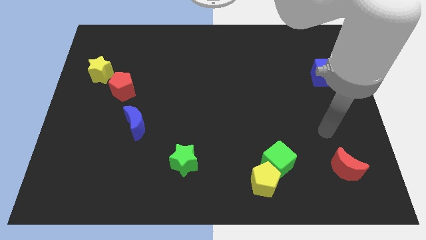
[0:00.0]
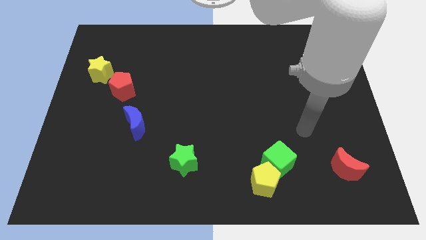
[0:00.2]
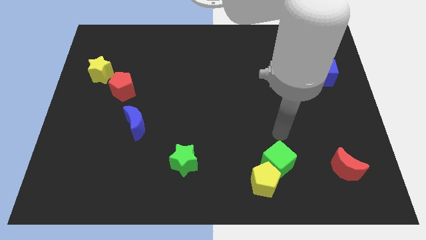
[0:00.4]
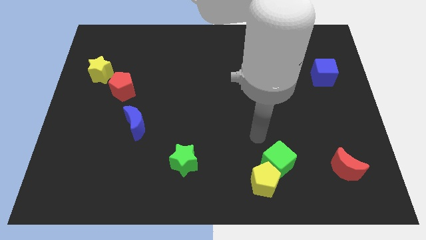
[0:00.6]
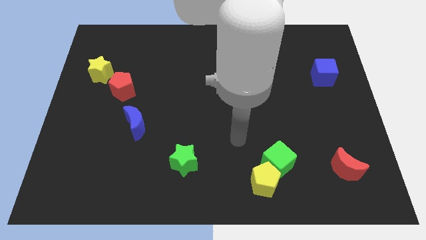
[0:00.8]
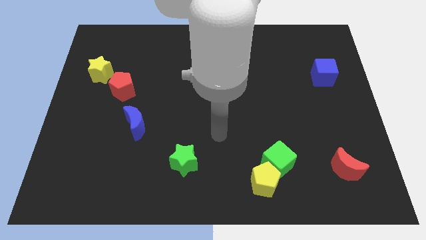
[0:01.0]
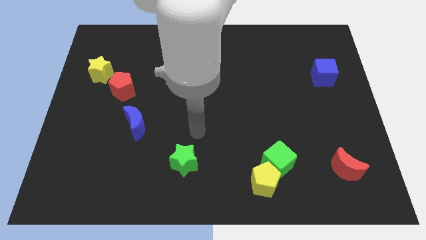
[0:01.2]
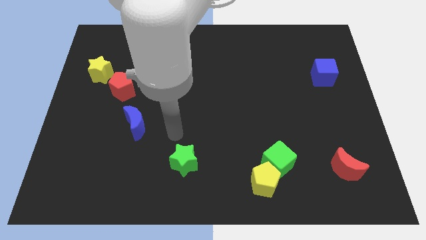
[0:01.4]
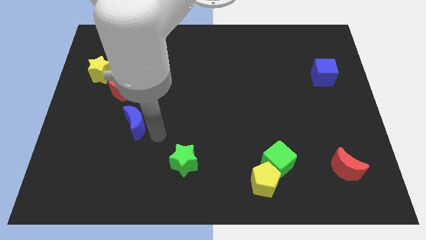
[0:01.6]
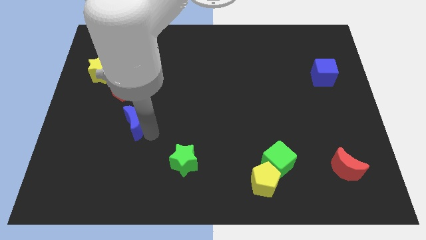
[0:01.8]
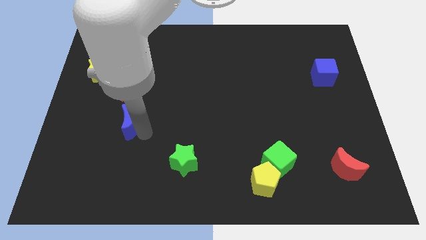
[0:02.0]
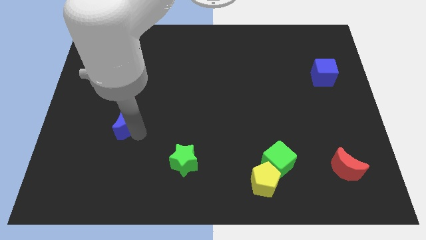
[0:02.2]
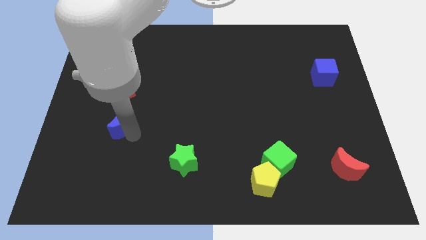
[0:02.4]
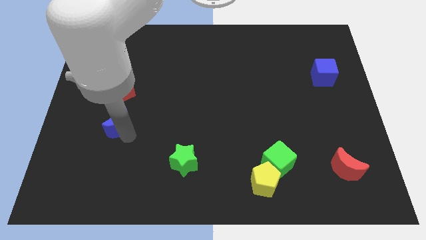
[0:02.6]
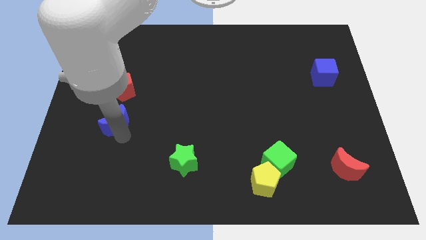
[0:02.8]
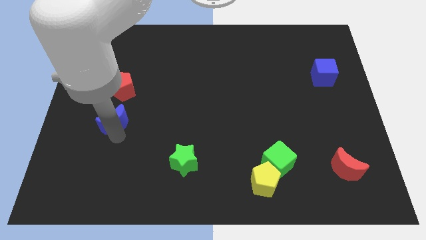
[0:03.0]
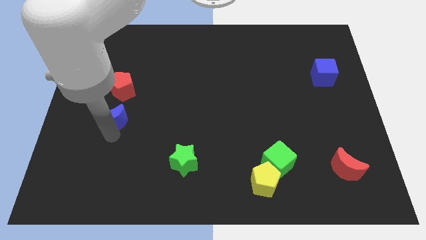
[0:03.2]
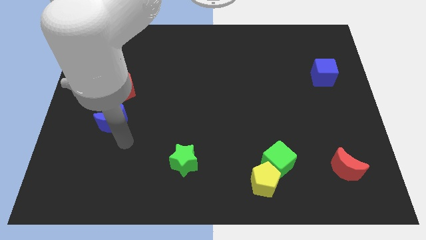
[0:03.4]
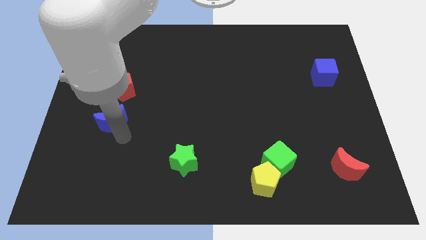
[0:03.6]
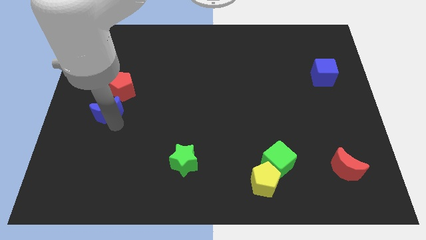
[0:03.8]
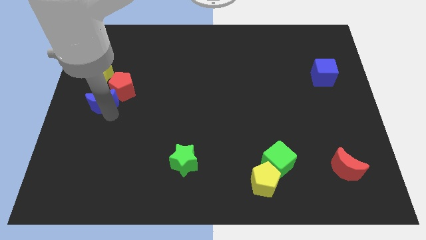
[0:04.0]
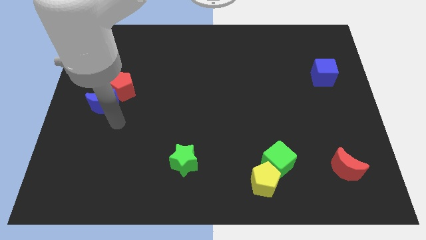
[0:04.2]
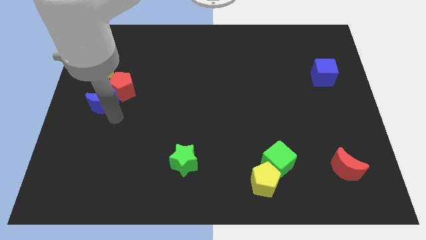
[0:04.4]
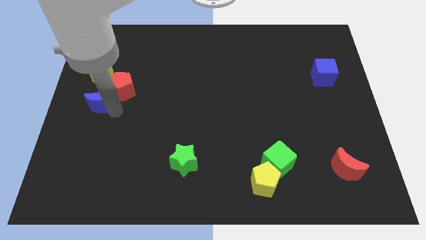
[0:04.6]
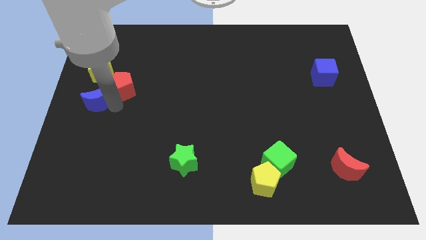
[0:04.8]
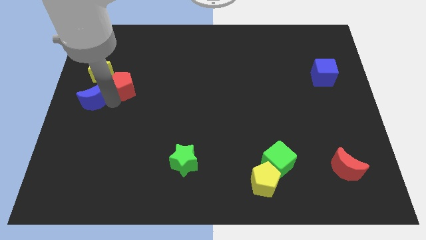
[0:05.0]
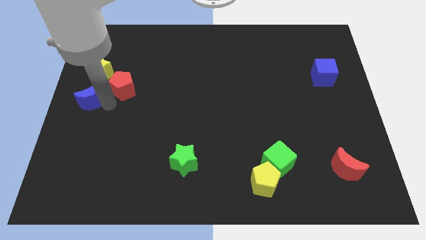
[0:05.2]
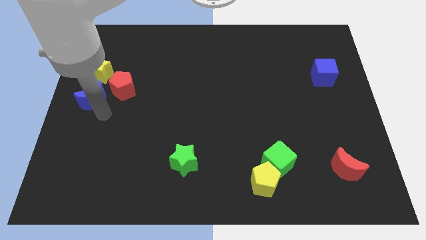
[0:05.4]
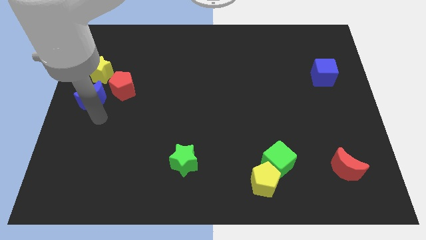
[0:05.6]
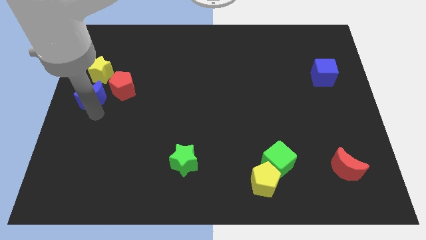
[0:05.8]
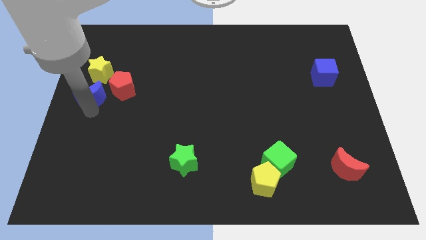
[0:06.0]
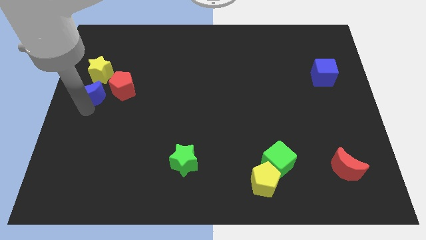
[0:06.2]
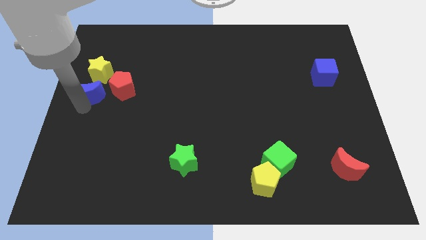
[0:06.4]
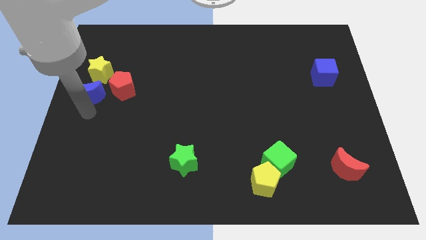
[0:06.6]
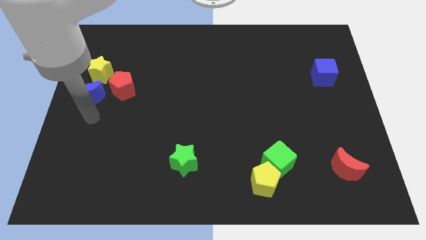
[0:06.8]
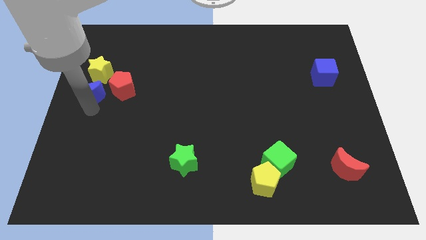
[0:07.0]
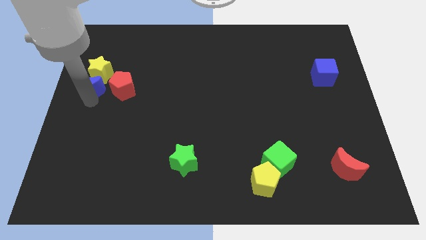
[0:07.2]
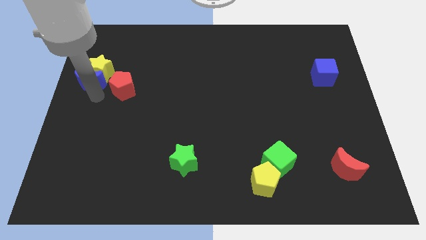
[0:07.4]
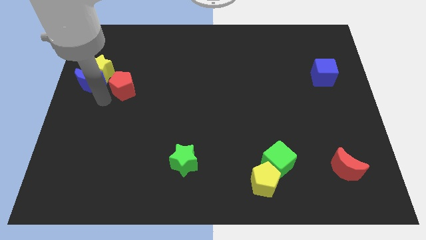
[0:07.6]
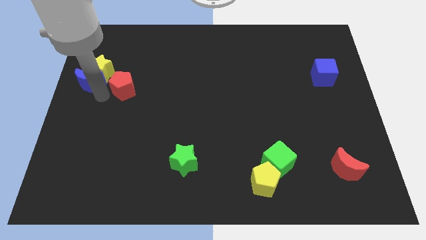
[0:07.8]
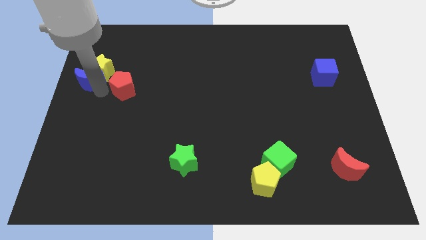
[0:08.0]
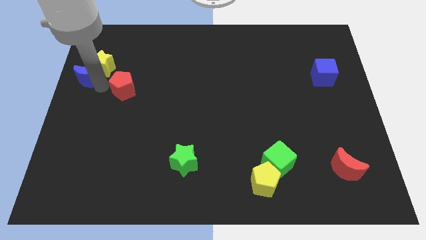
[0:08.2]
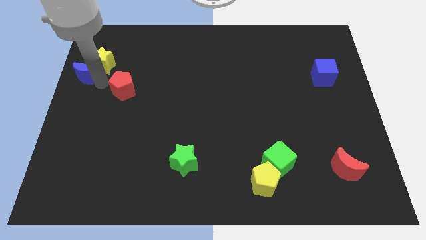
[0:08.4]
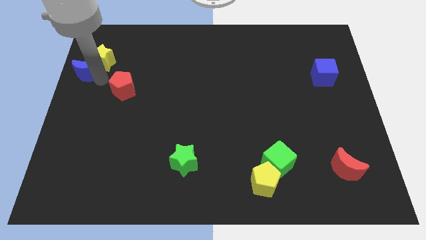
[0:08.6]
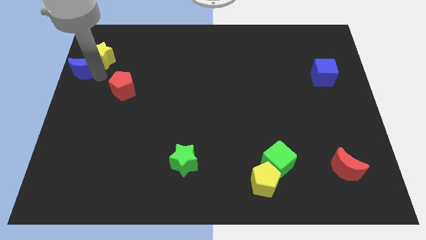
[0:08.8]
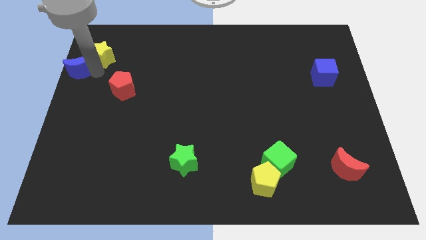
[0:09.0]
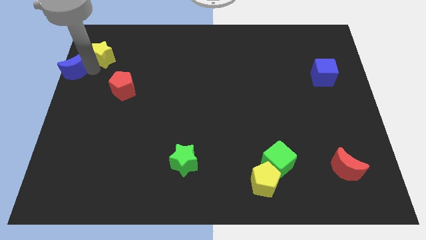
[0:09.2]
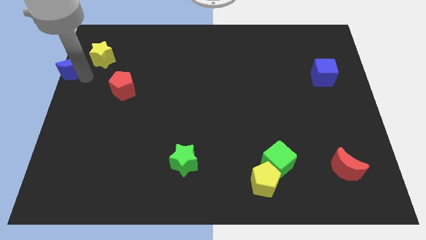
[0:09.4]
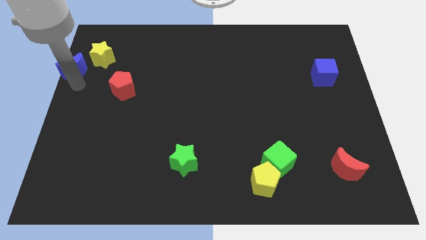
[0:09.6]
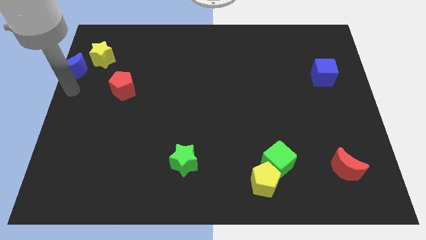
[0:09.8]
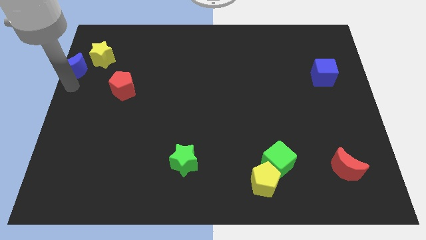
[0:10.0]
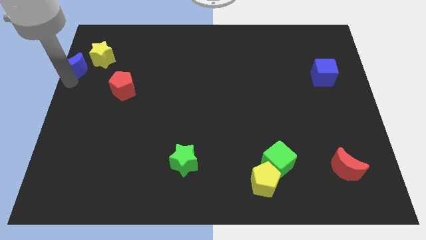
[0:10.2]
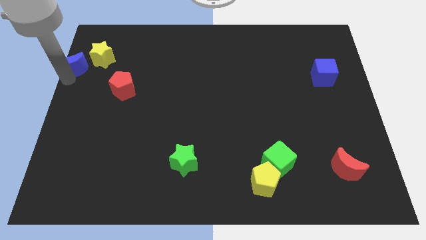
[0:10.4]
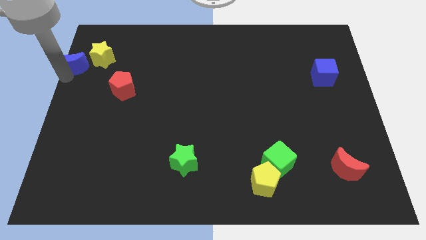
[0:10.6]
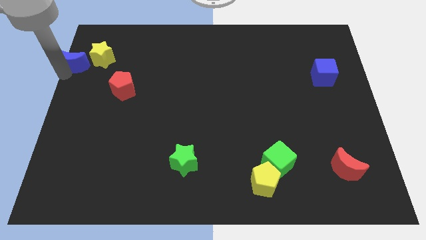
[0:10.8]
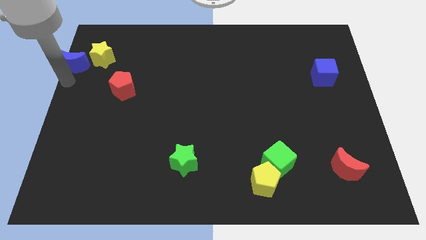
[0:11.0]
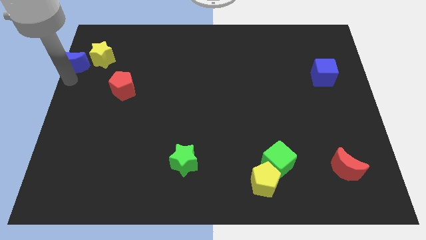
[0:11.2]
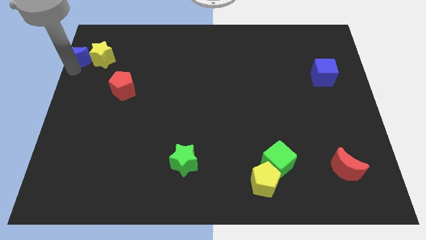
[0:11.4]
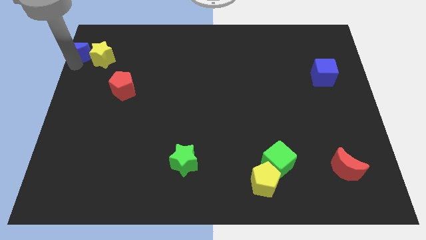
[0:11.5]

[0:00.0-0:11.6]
push the blue moon to the upper left corner

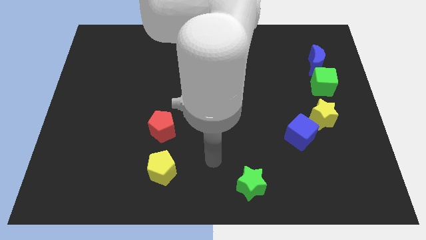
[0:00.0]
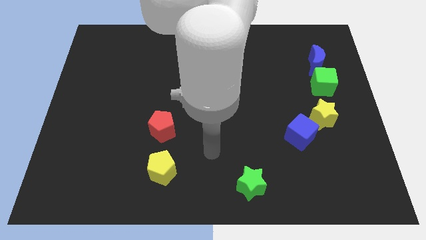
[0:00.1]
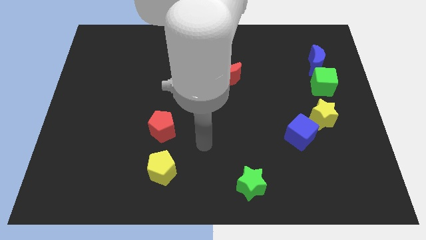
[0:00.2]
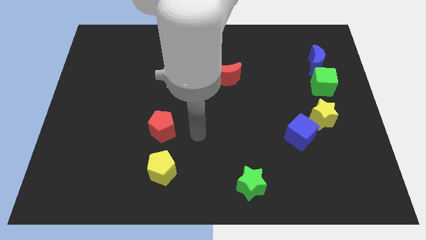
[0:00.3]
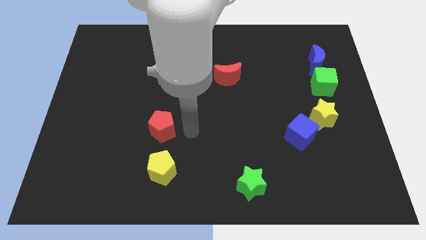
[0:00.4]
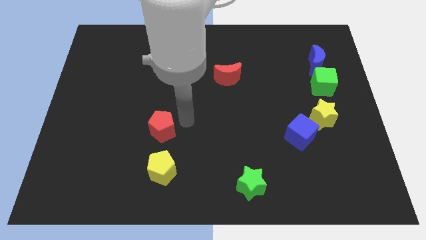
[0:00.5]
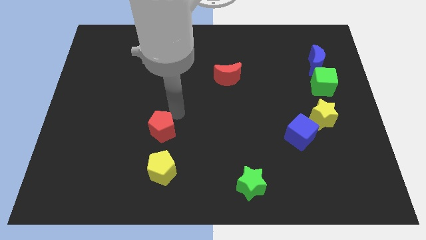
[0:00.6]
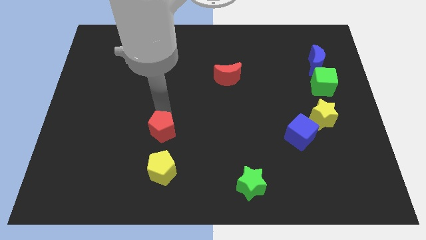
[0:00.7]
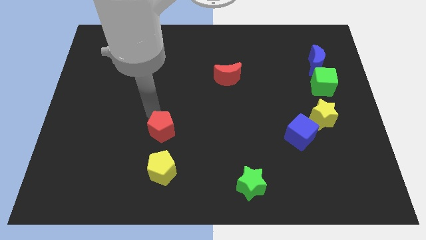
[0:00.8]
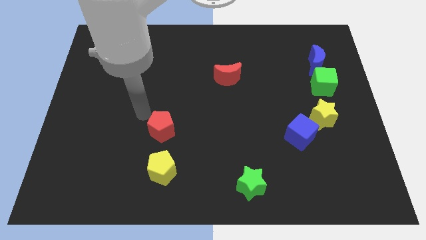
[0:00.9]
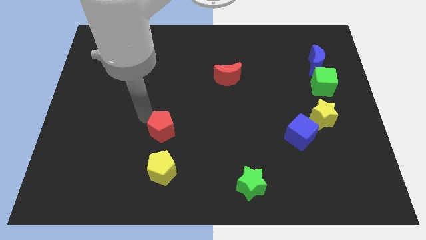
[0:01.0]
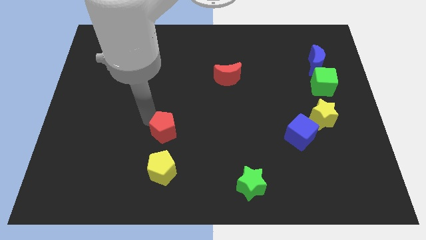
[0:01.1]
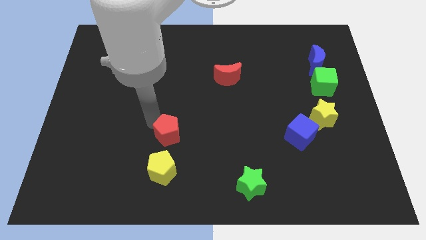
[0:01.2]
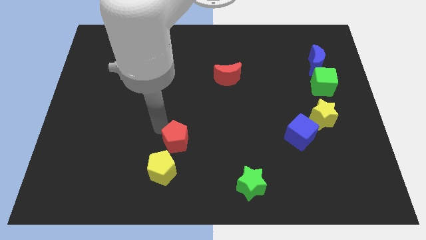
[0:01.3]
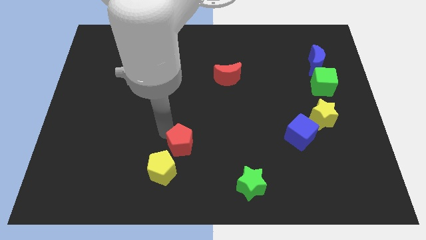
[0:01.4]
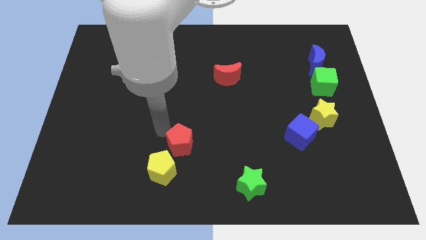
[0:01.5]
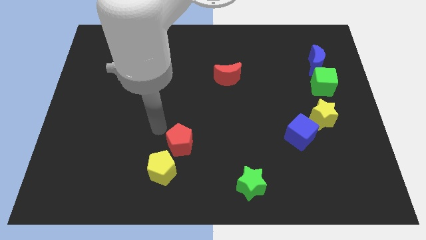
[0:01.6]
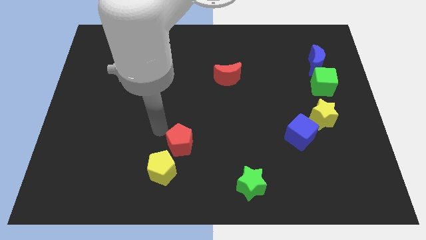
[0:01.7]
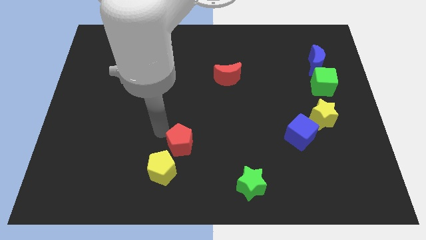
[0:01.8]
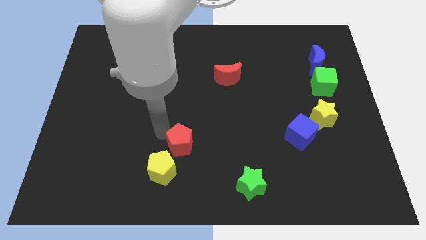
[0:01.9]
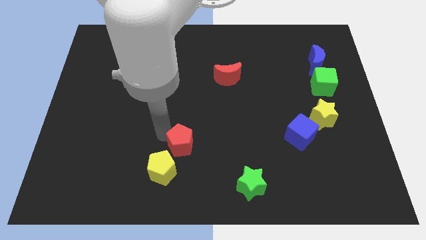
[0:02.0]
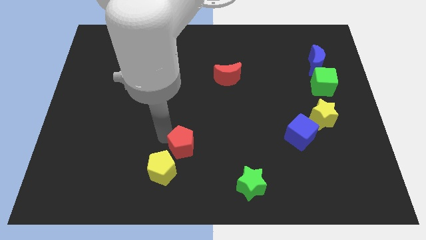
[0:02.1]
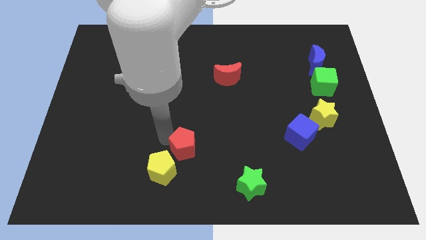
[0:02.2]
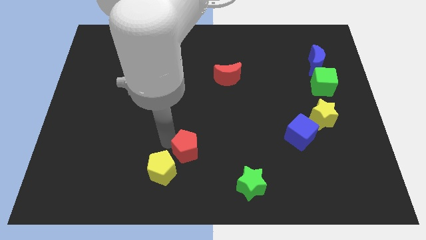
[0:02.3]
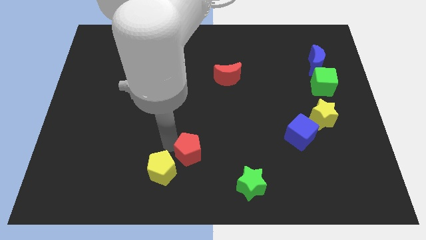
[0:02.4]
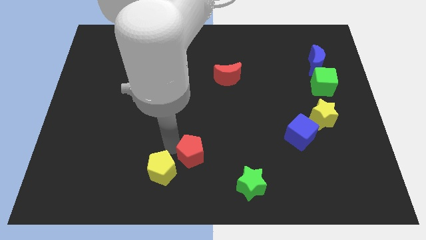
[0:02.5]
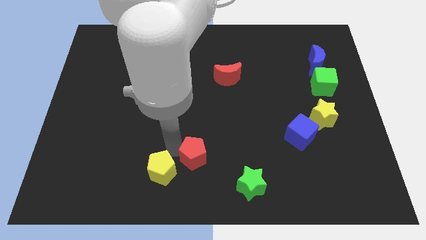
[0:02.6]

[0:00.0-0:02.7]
slide the red pentagon to the bottom side
